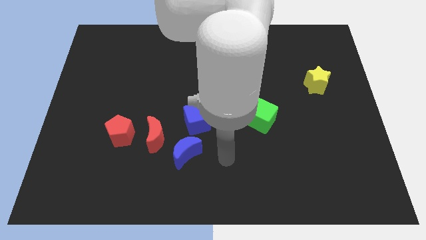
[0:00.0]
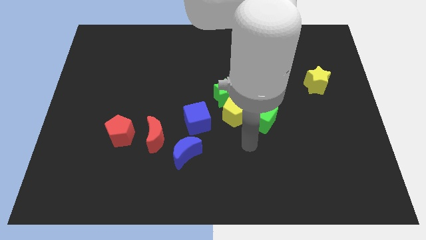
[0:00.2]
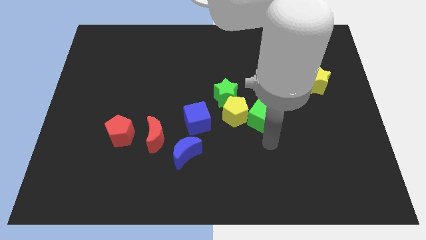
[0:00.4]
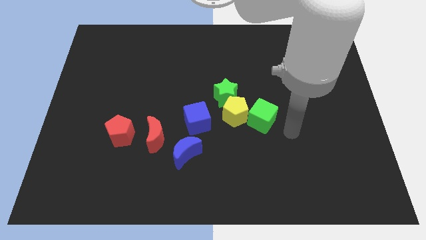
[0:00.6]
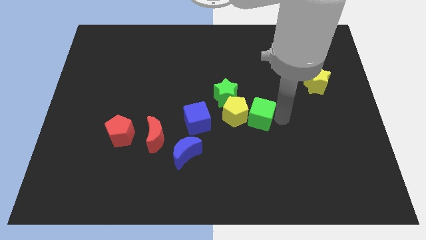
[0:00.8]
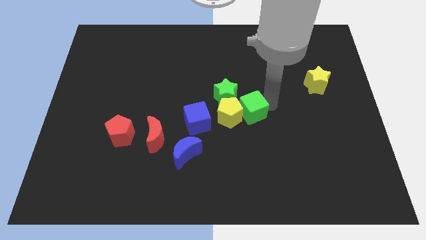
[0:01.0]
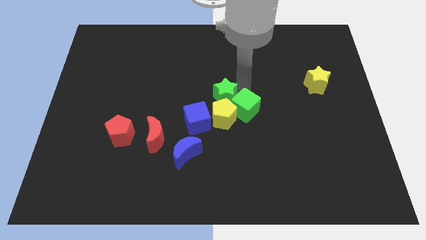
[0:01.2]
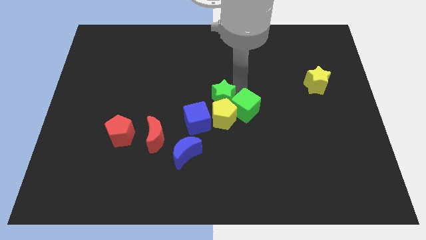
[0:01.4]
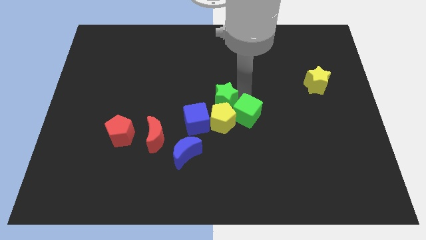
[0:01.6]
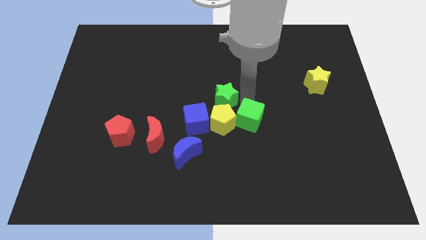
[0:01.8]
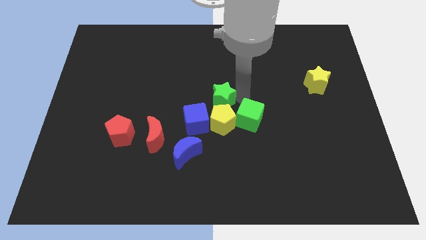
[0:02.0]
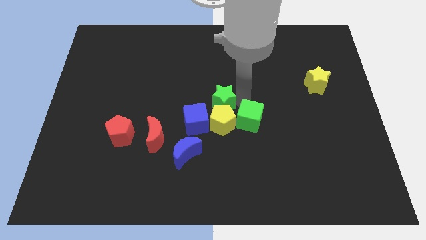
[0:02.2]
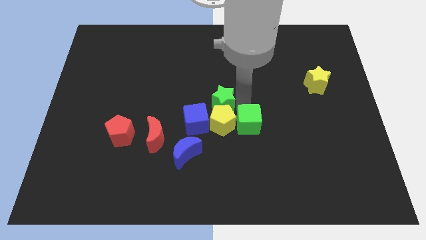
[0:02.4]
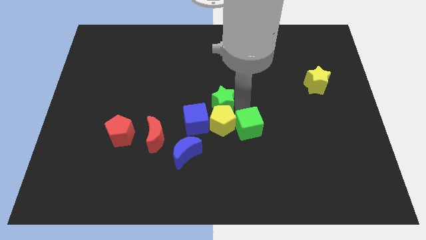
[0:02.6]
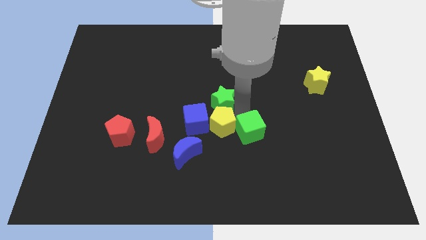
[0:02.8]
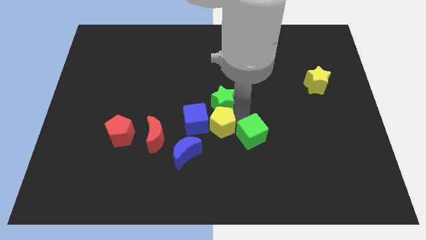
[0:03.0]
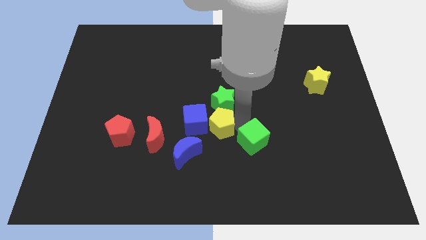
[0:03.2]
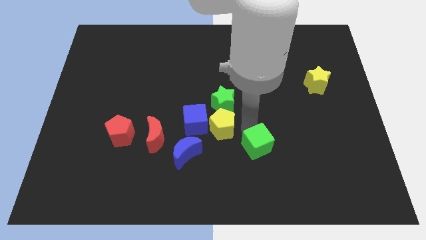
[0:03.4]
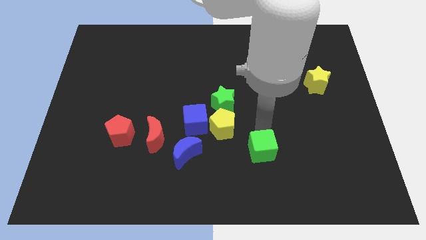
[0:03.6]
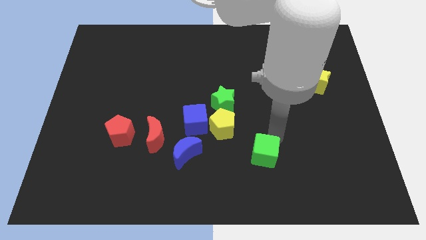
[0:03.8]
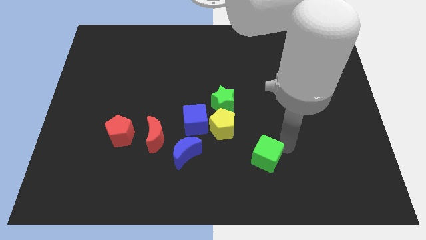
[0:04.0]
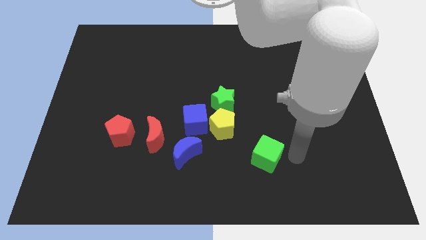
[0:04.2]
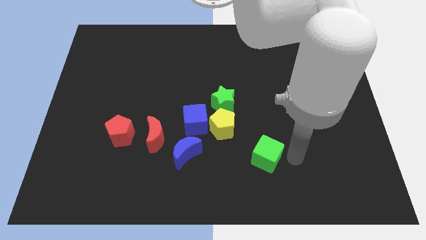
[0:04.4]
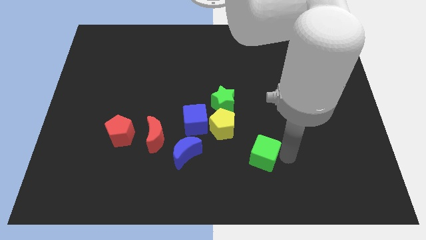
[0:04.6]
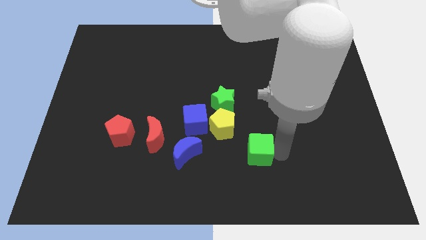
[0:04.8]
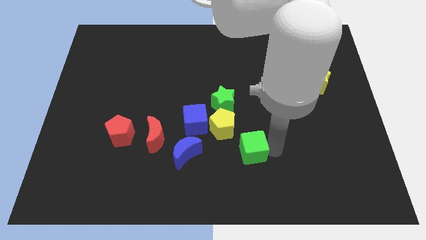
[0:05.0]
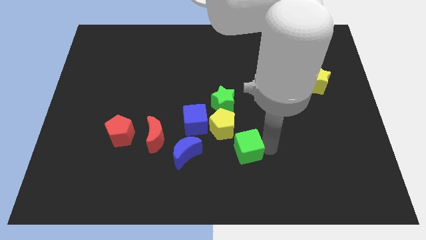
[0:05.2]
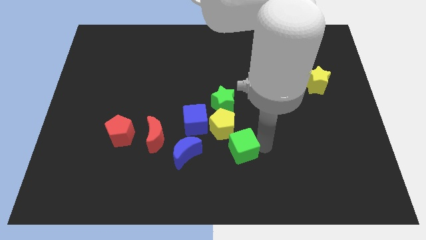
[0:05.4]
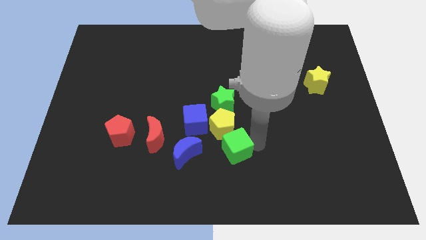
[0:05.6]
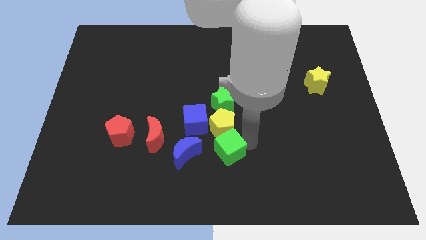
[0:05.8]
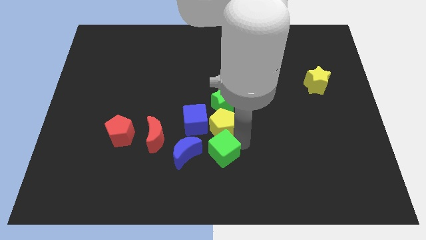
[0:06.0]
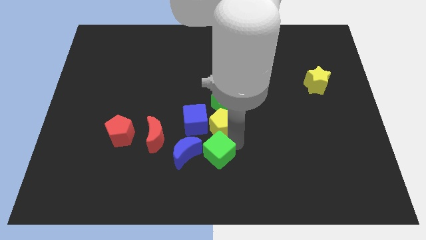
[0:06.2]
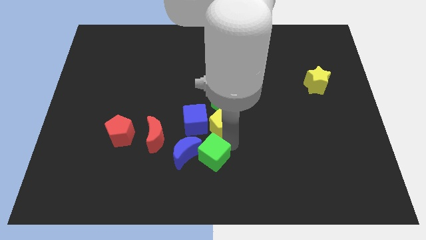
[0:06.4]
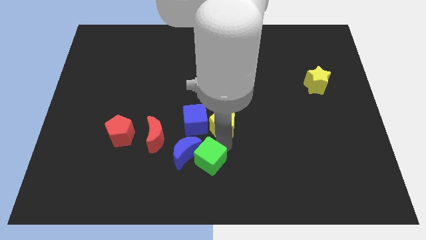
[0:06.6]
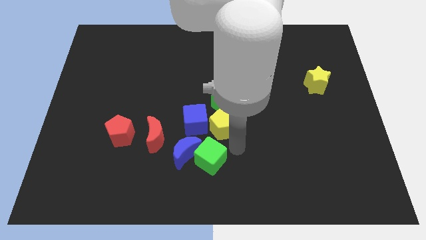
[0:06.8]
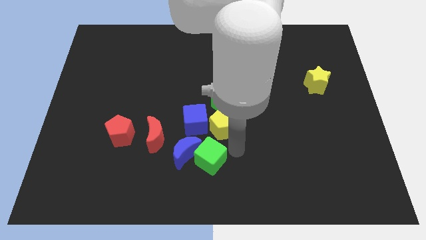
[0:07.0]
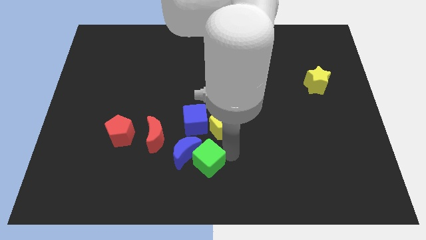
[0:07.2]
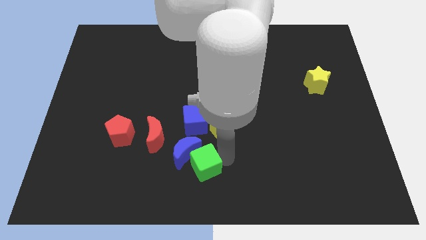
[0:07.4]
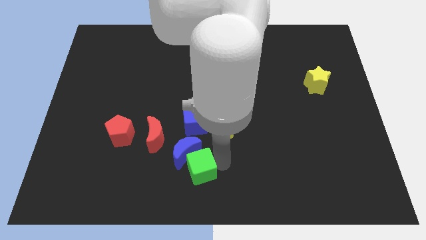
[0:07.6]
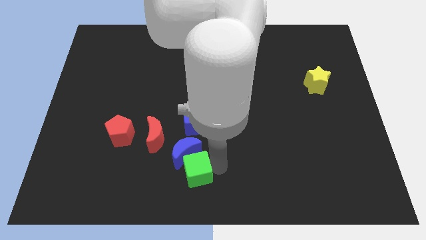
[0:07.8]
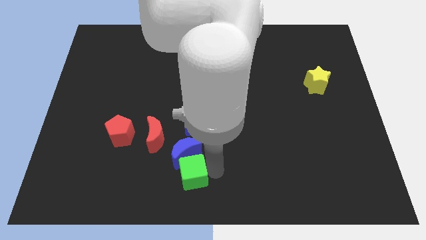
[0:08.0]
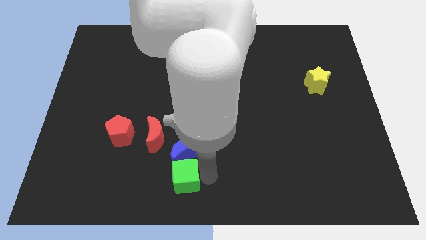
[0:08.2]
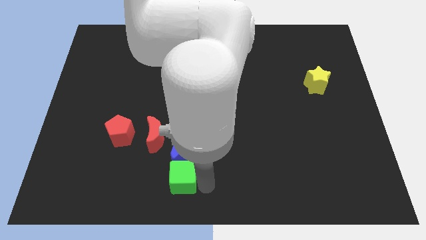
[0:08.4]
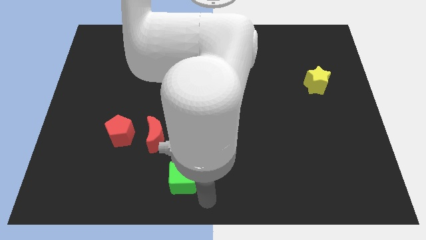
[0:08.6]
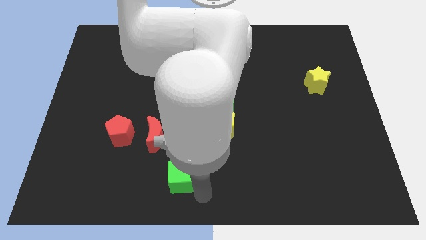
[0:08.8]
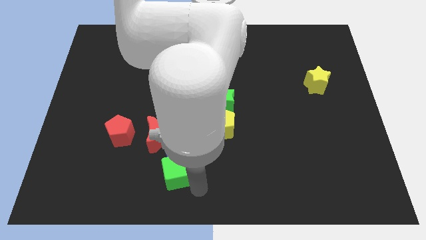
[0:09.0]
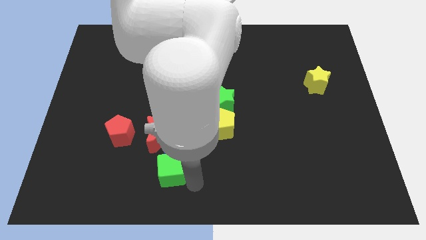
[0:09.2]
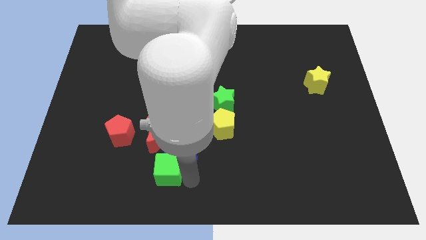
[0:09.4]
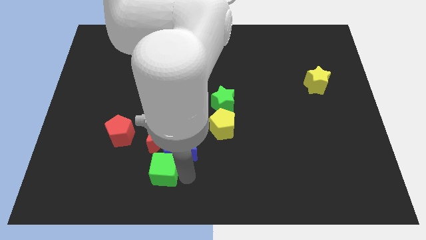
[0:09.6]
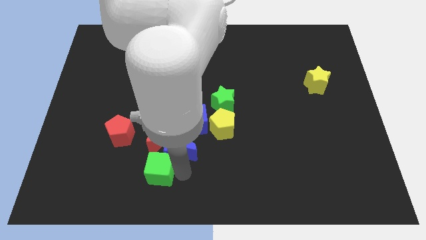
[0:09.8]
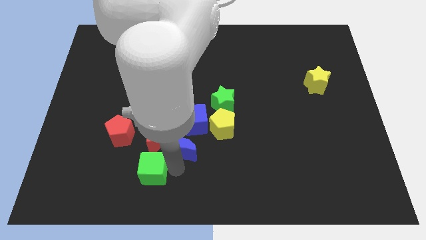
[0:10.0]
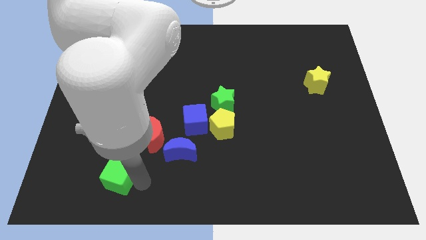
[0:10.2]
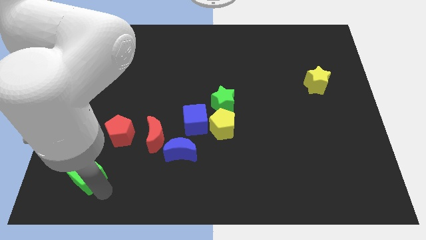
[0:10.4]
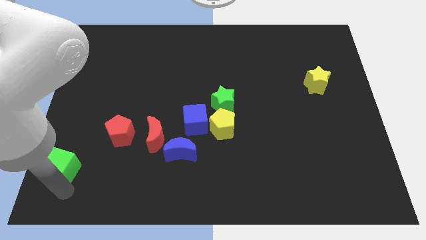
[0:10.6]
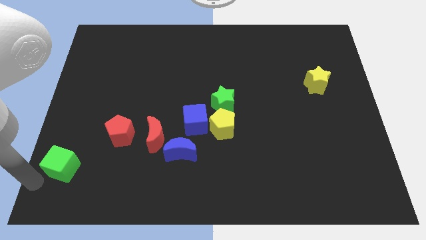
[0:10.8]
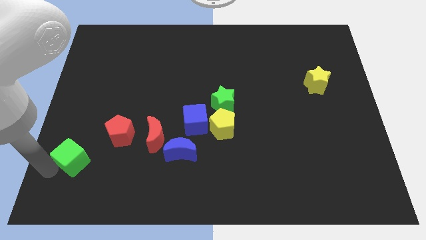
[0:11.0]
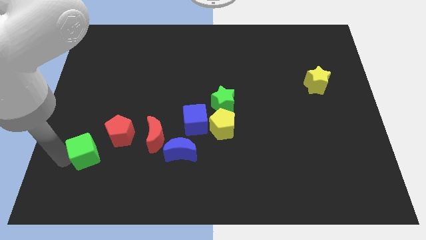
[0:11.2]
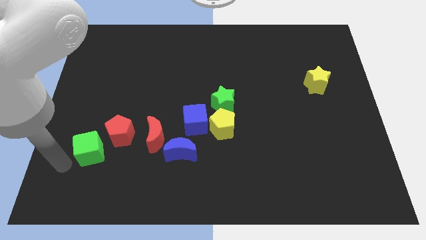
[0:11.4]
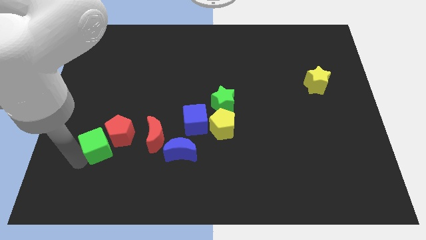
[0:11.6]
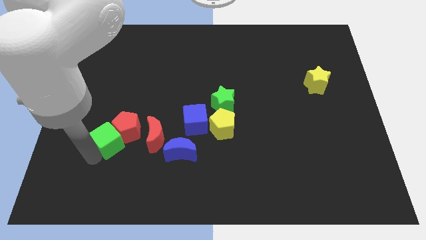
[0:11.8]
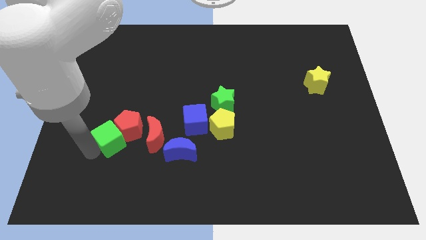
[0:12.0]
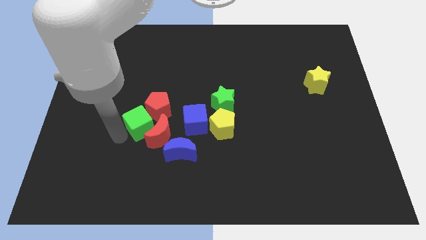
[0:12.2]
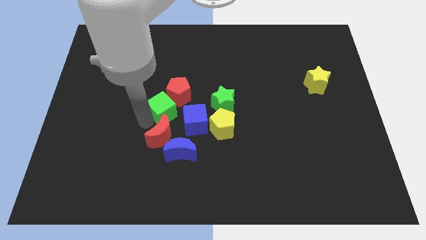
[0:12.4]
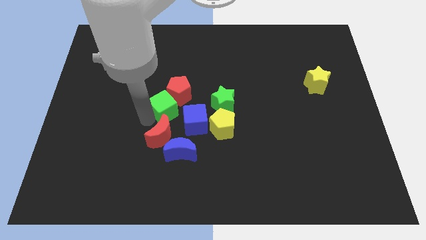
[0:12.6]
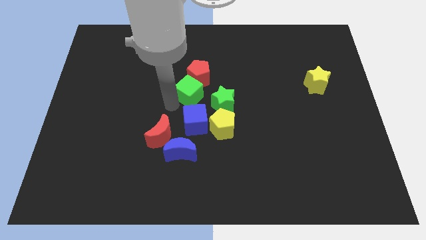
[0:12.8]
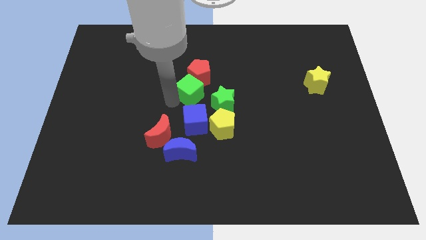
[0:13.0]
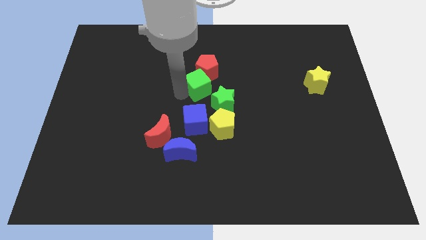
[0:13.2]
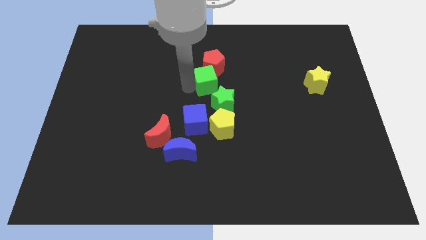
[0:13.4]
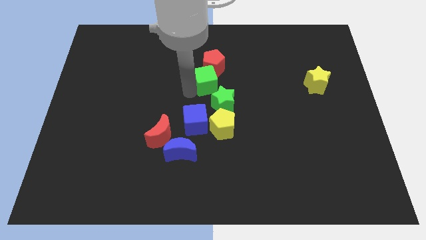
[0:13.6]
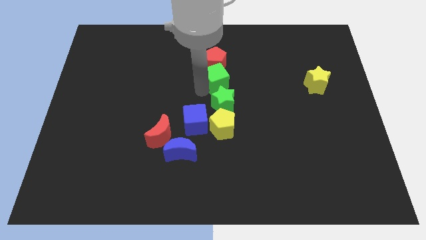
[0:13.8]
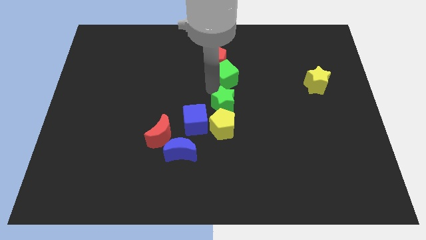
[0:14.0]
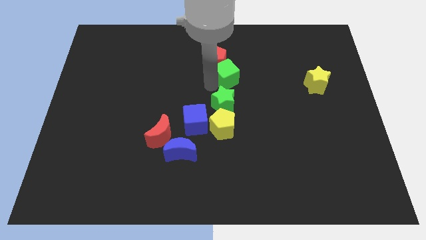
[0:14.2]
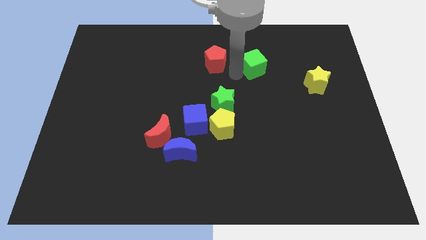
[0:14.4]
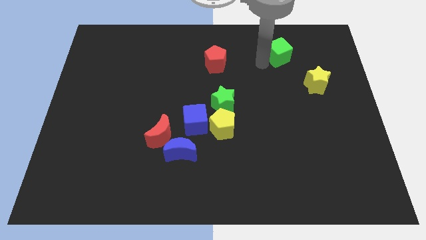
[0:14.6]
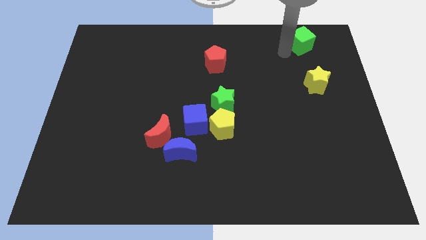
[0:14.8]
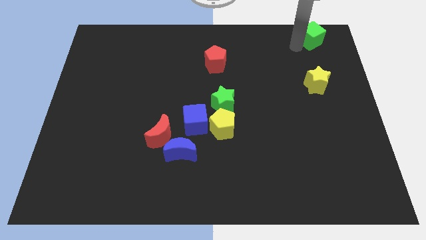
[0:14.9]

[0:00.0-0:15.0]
push the green cube to the top right
